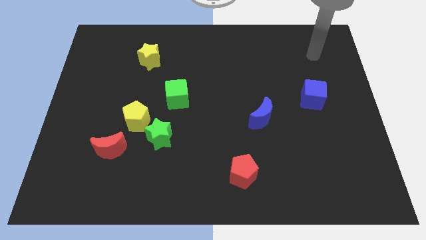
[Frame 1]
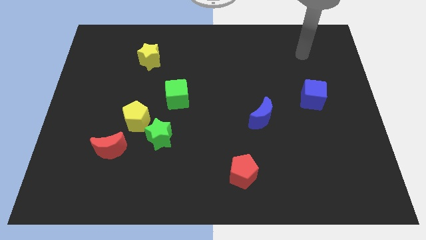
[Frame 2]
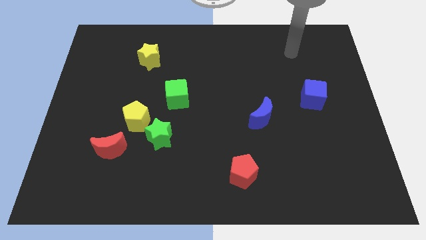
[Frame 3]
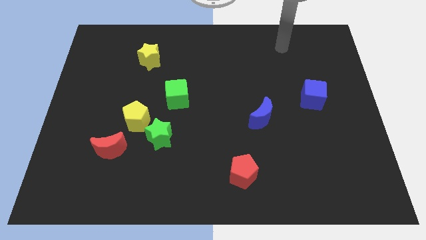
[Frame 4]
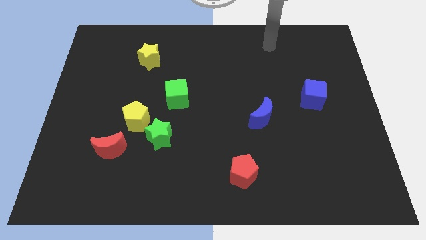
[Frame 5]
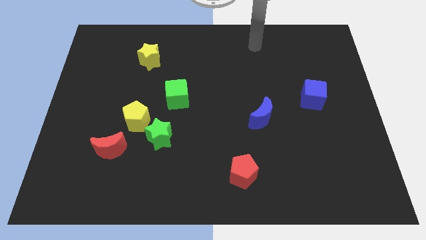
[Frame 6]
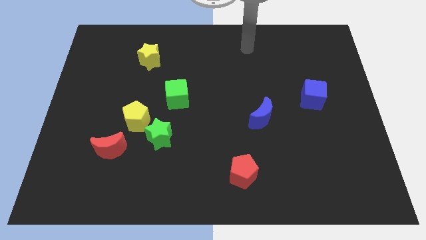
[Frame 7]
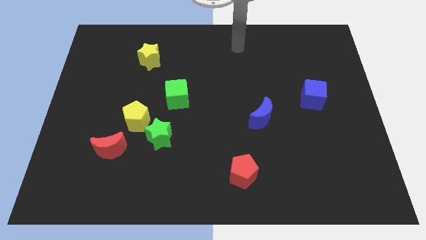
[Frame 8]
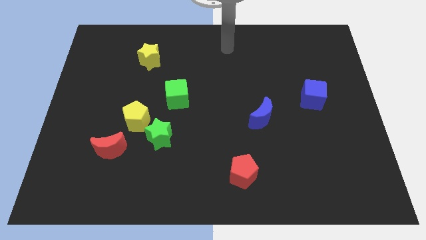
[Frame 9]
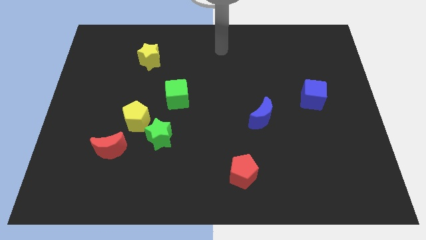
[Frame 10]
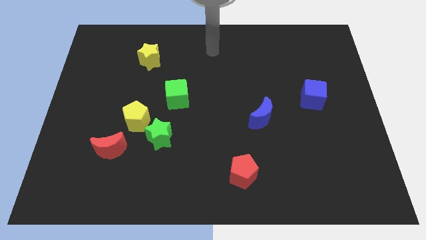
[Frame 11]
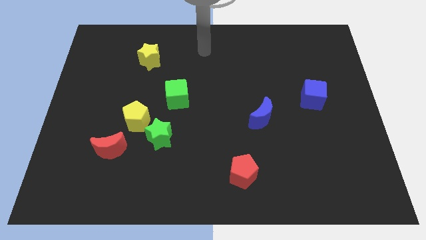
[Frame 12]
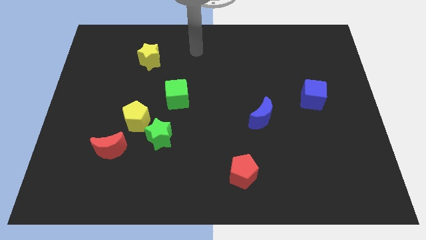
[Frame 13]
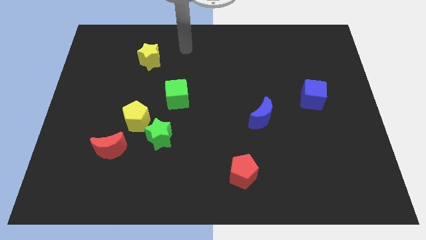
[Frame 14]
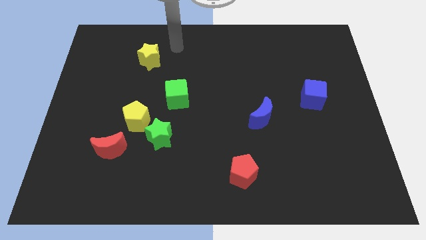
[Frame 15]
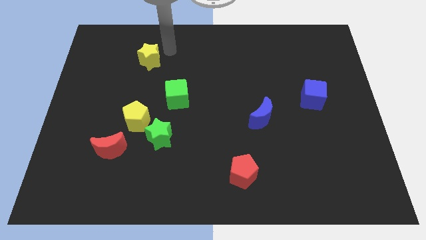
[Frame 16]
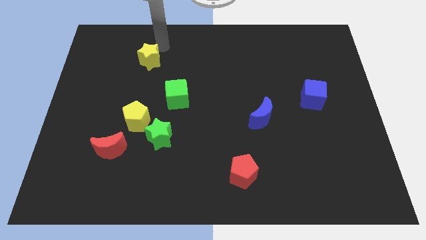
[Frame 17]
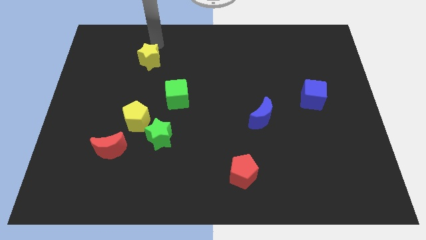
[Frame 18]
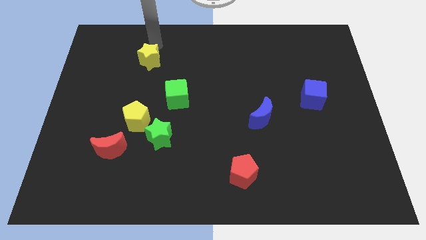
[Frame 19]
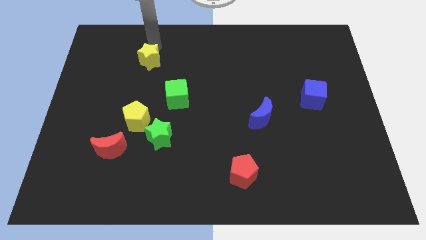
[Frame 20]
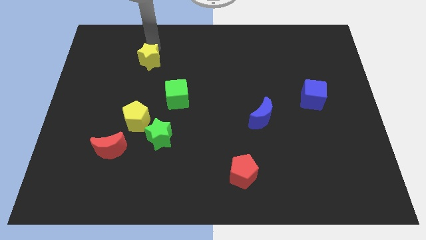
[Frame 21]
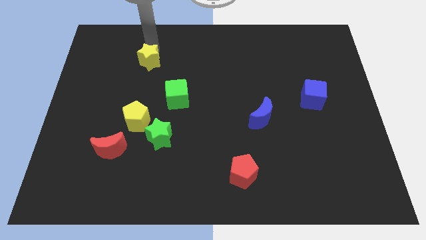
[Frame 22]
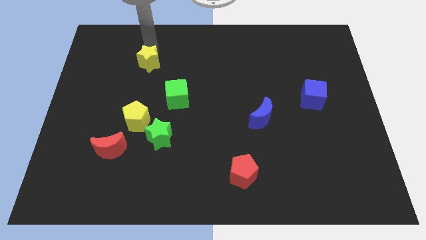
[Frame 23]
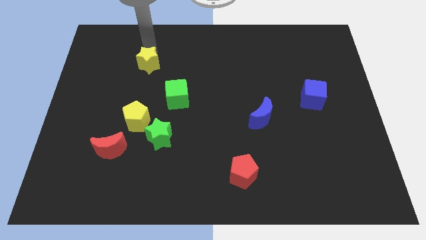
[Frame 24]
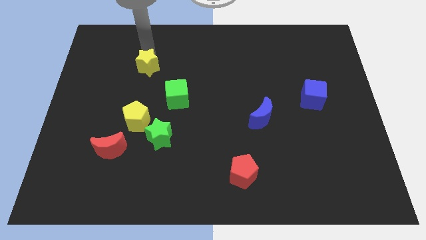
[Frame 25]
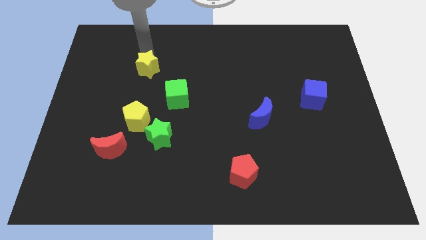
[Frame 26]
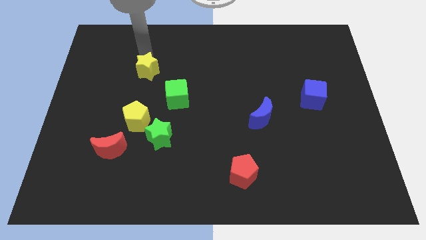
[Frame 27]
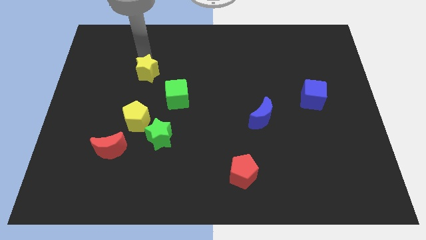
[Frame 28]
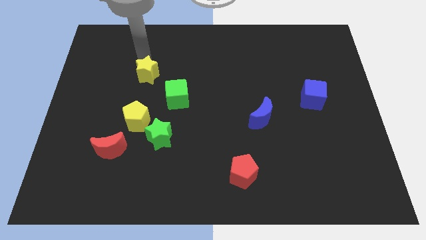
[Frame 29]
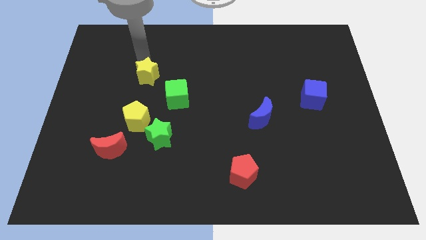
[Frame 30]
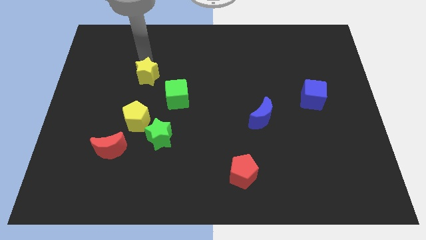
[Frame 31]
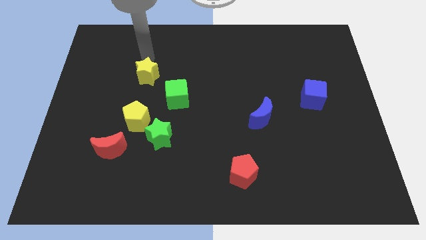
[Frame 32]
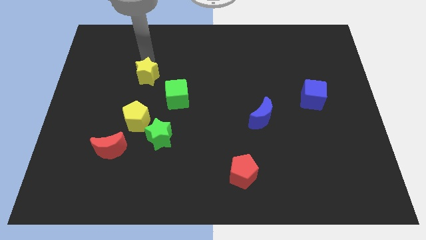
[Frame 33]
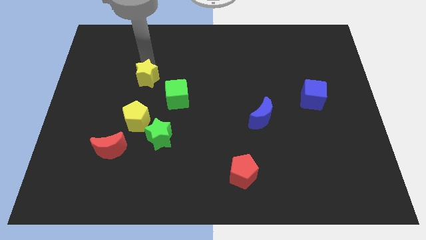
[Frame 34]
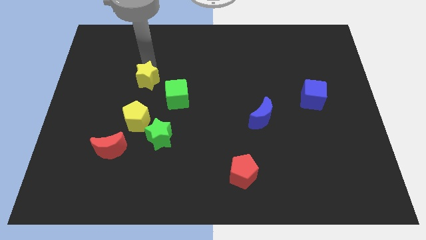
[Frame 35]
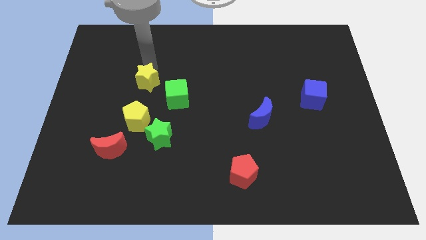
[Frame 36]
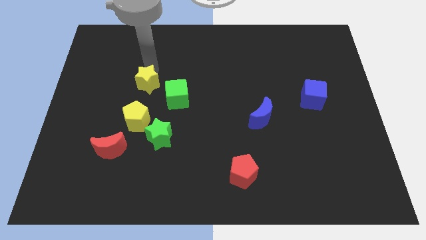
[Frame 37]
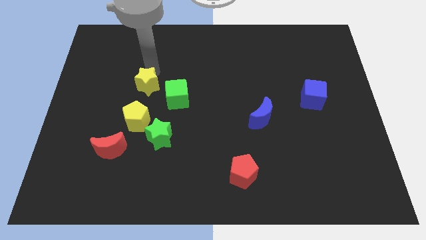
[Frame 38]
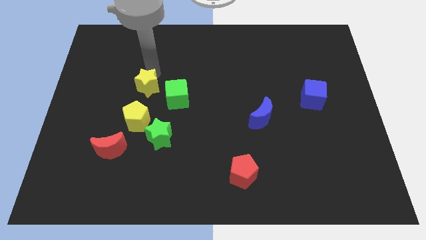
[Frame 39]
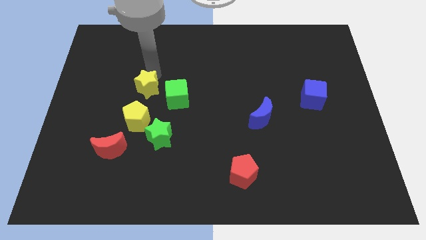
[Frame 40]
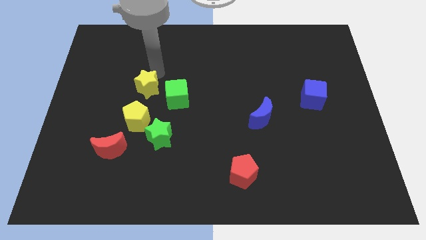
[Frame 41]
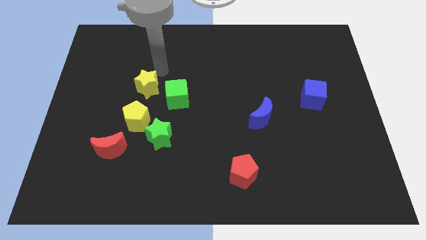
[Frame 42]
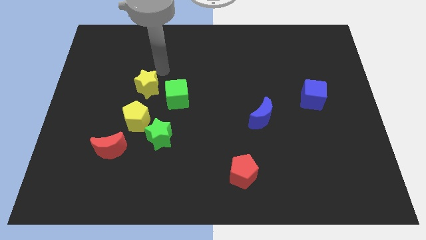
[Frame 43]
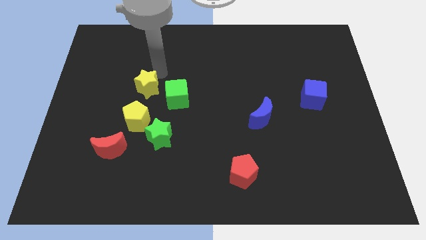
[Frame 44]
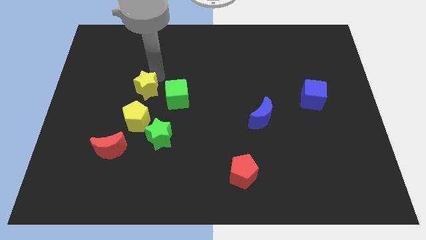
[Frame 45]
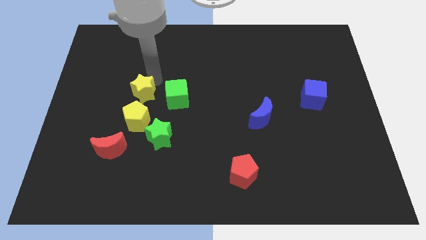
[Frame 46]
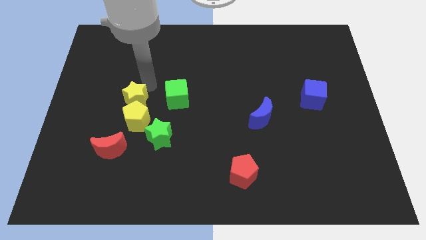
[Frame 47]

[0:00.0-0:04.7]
put the yellow star close to the yellow pentagon

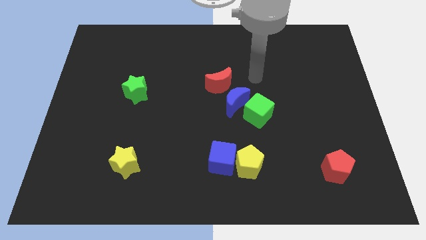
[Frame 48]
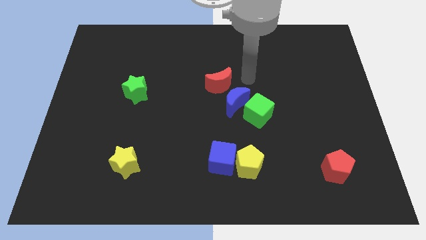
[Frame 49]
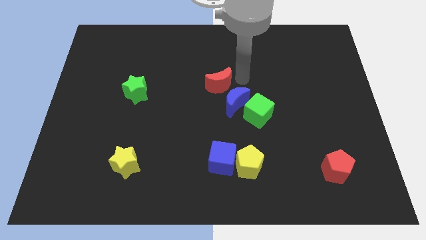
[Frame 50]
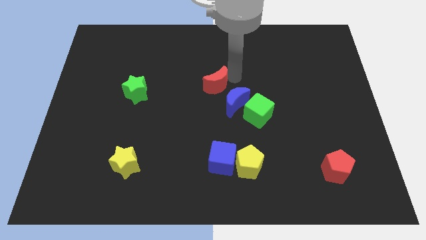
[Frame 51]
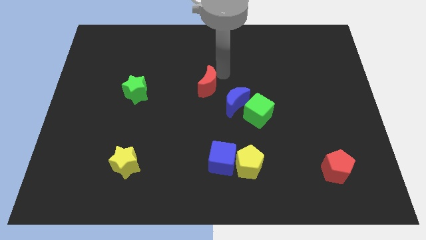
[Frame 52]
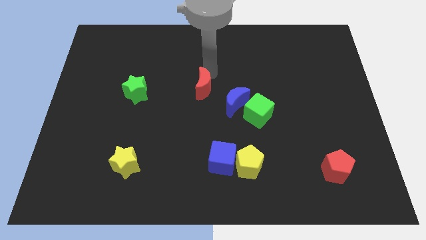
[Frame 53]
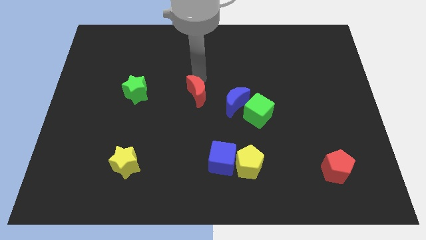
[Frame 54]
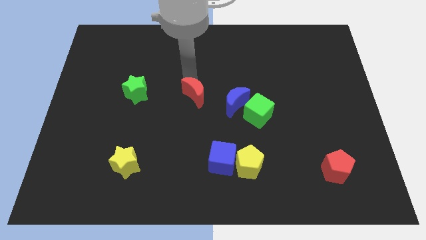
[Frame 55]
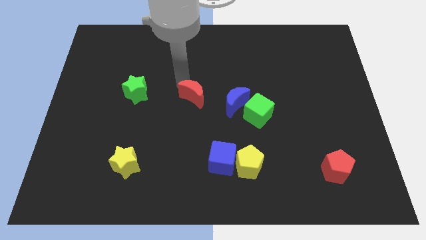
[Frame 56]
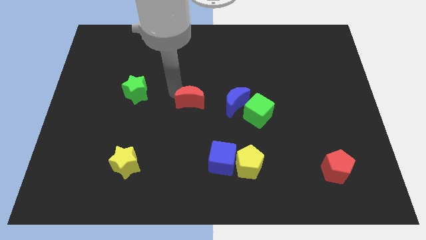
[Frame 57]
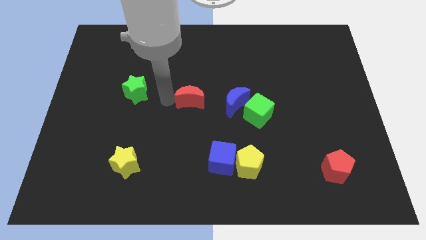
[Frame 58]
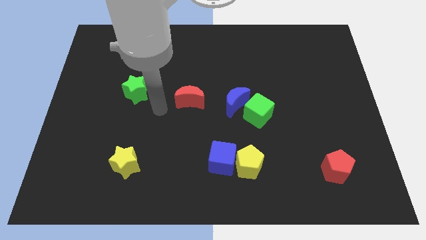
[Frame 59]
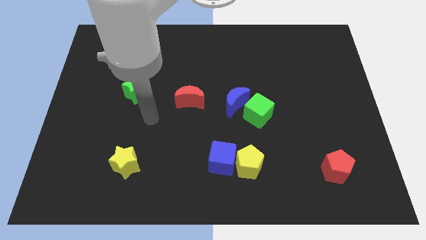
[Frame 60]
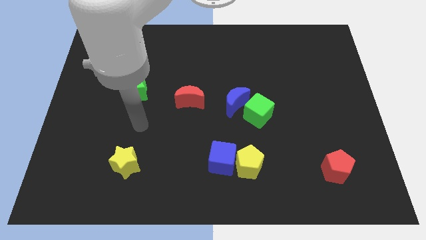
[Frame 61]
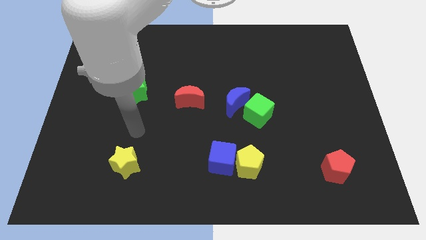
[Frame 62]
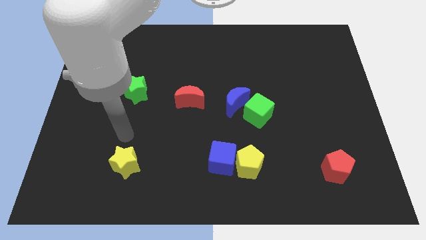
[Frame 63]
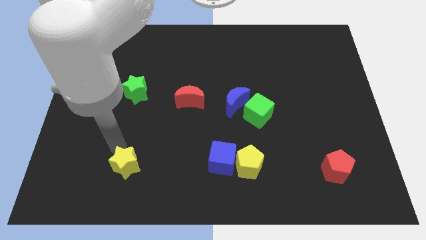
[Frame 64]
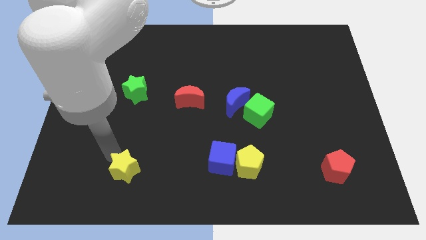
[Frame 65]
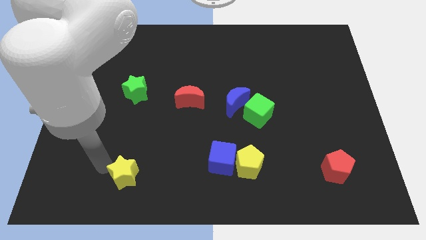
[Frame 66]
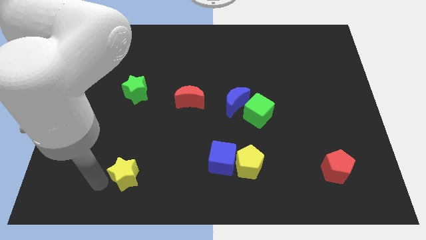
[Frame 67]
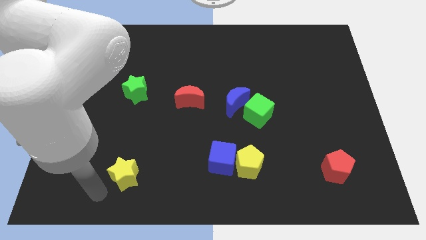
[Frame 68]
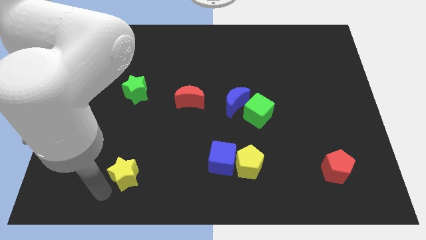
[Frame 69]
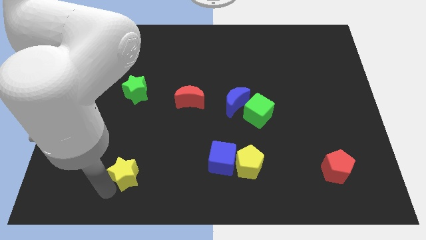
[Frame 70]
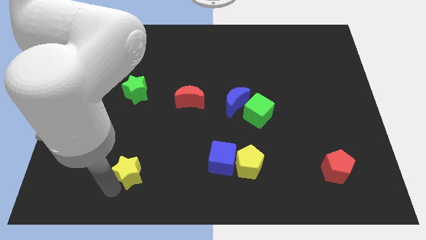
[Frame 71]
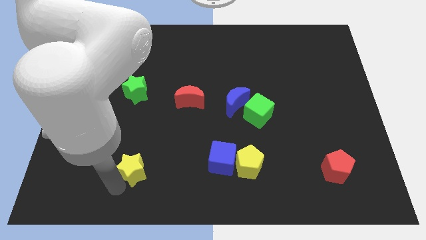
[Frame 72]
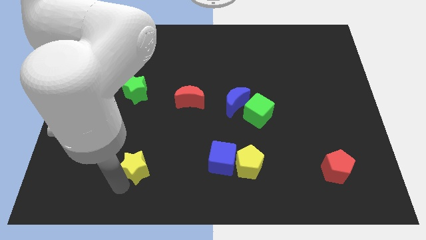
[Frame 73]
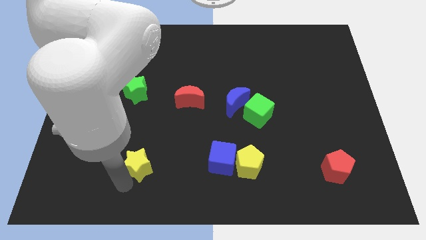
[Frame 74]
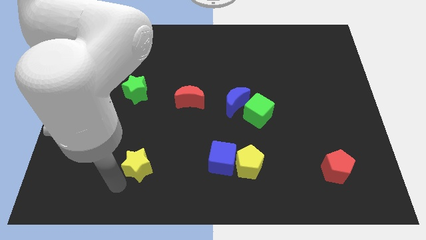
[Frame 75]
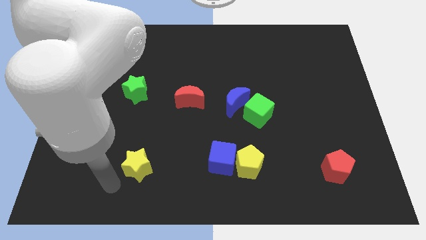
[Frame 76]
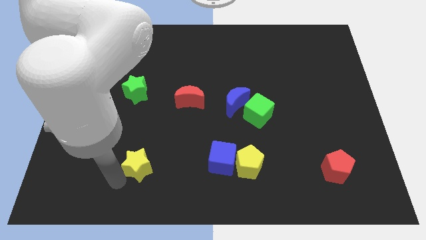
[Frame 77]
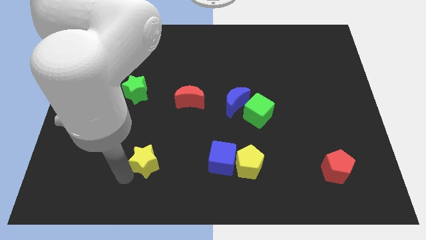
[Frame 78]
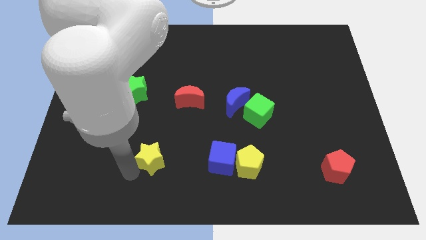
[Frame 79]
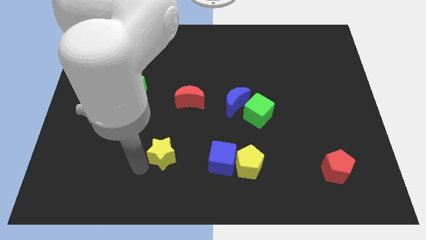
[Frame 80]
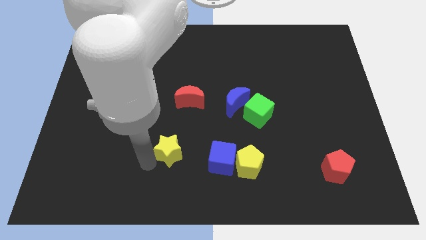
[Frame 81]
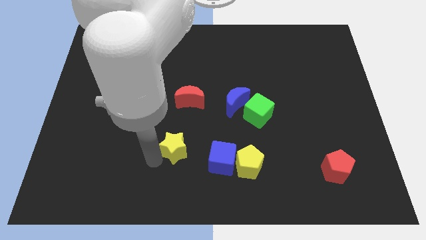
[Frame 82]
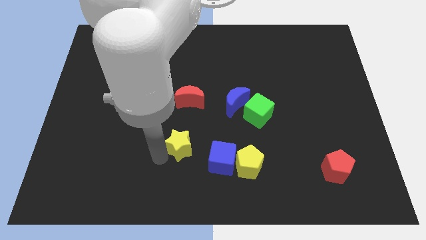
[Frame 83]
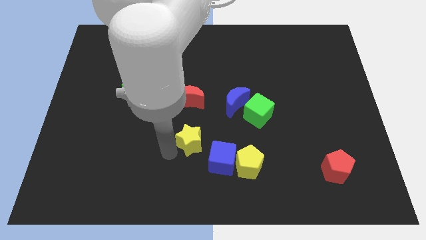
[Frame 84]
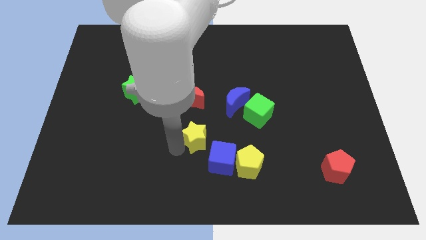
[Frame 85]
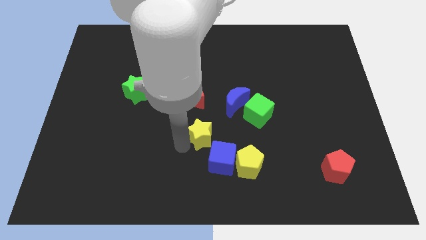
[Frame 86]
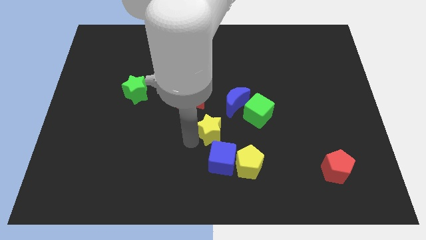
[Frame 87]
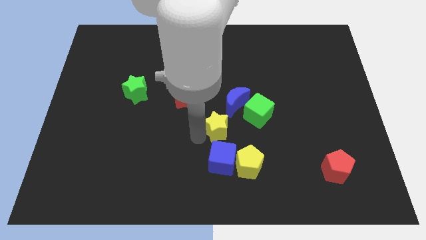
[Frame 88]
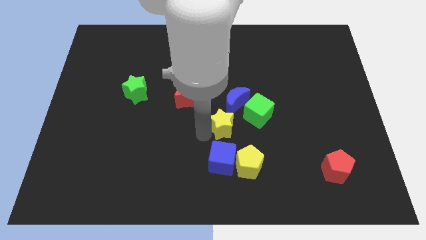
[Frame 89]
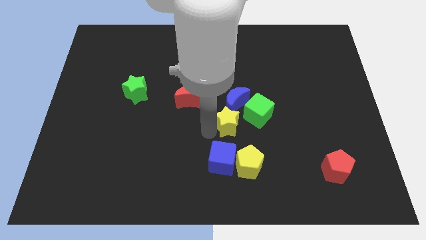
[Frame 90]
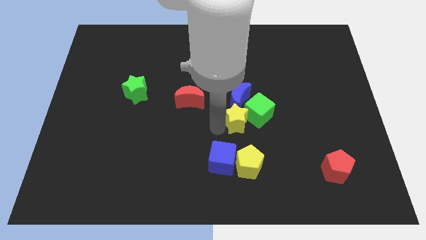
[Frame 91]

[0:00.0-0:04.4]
slide the yellow star to the green cube
